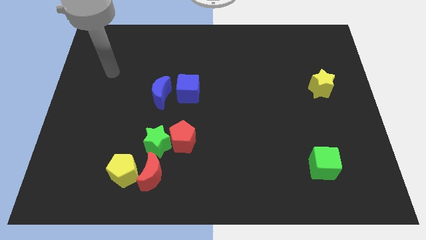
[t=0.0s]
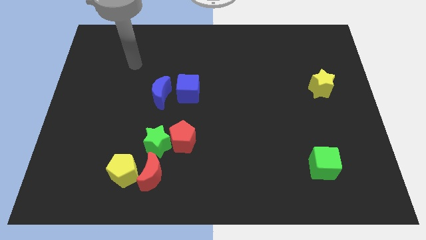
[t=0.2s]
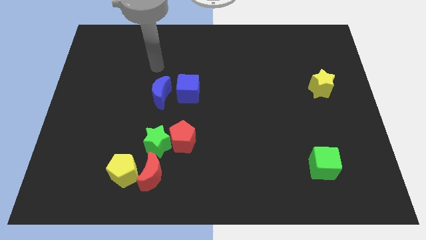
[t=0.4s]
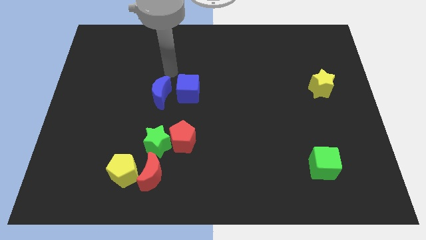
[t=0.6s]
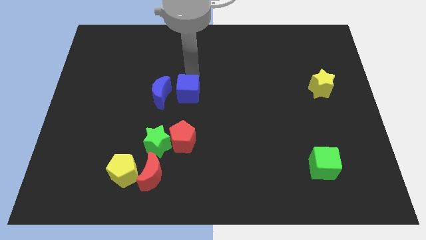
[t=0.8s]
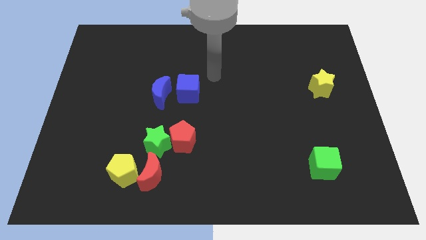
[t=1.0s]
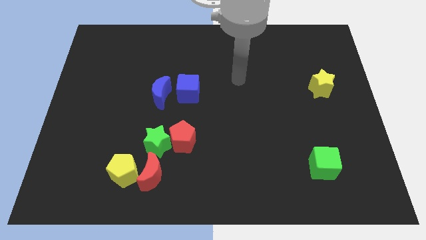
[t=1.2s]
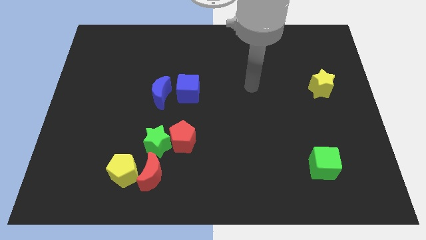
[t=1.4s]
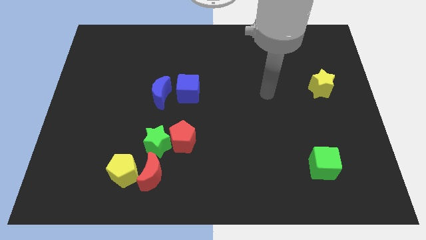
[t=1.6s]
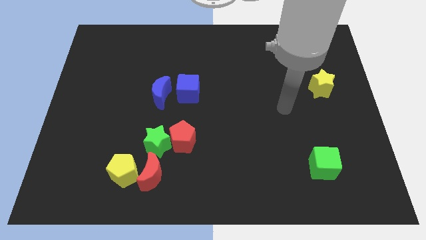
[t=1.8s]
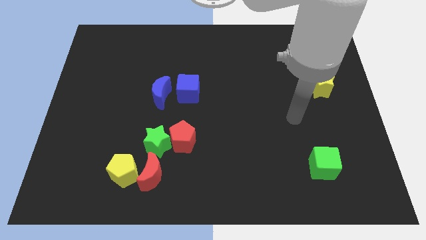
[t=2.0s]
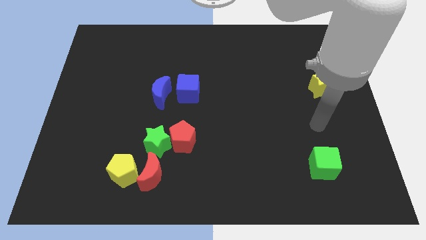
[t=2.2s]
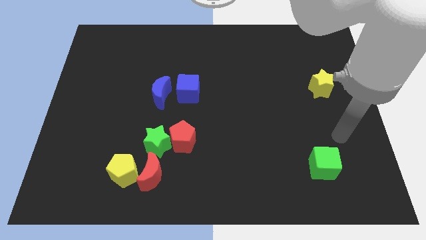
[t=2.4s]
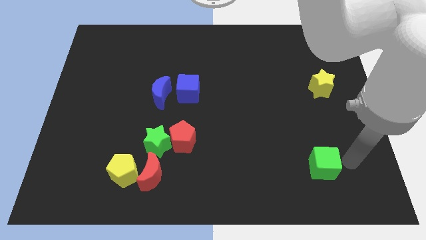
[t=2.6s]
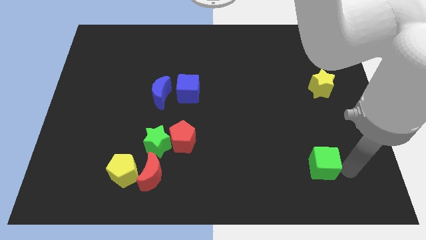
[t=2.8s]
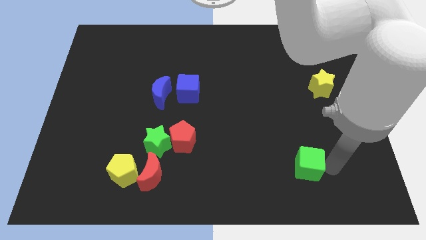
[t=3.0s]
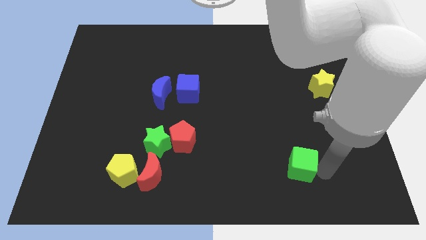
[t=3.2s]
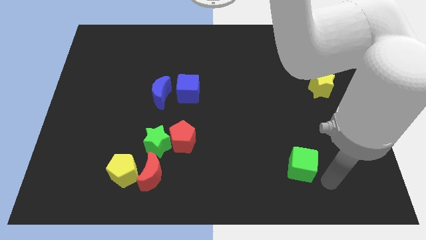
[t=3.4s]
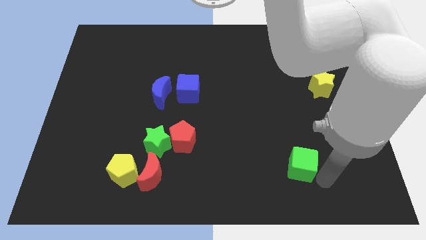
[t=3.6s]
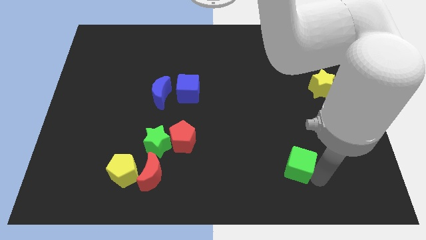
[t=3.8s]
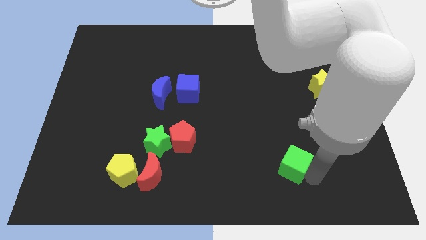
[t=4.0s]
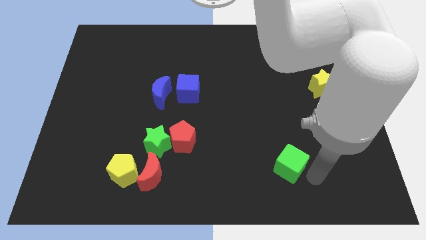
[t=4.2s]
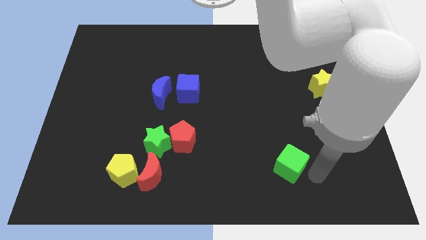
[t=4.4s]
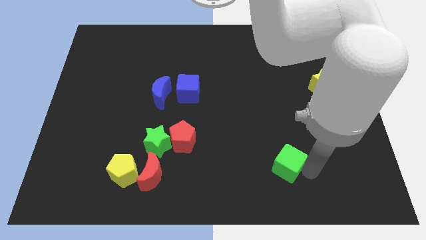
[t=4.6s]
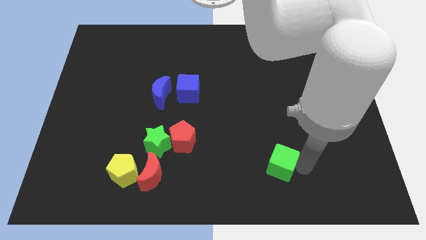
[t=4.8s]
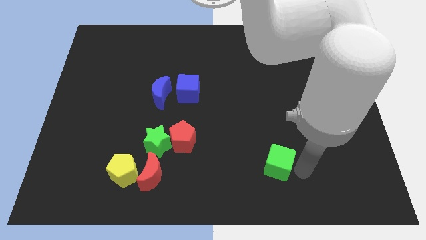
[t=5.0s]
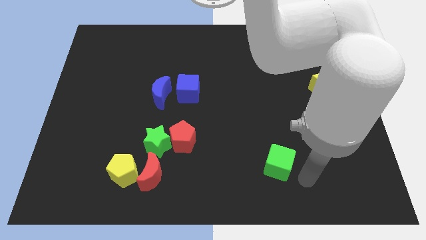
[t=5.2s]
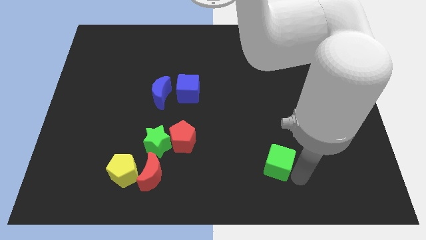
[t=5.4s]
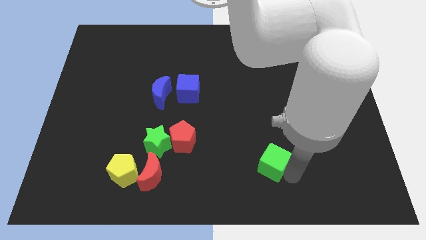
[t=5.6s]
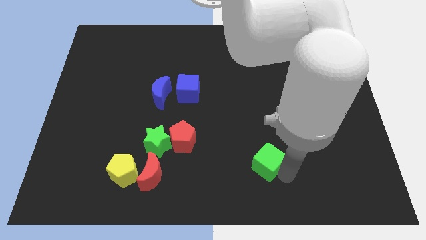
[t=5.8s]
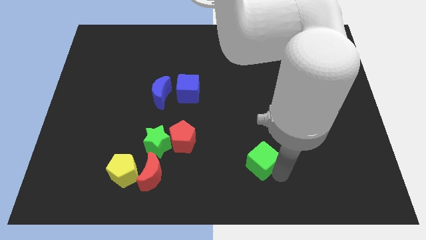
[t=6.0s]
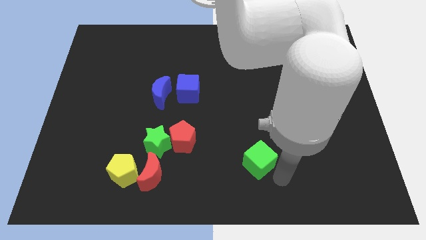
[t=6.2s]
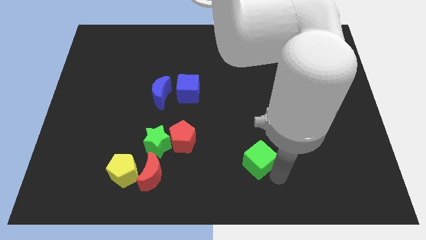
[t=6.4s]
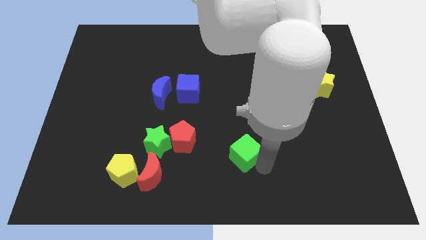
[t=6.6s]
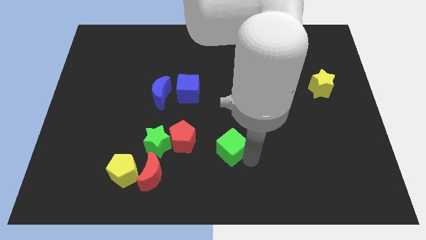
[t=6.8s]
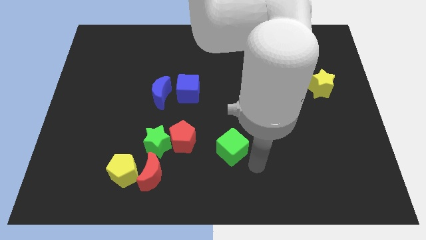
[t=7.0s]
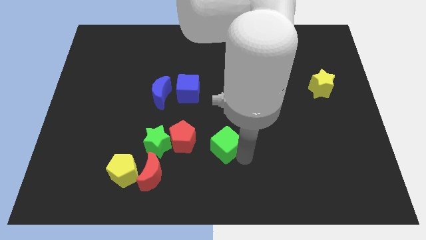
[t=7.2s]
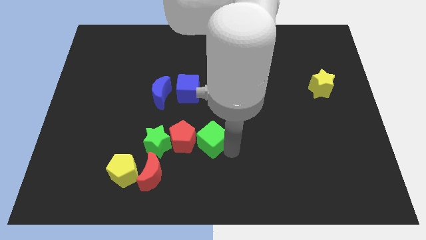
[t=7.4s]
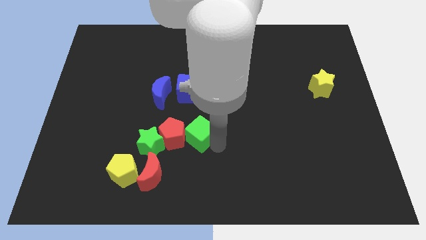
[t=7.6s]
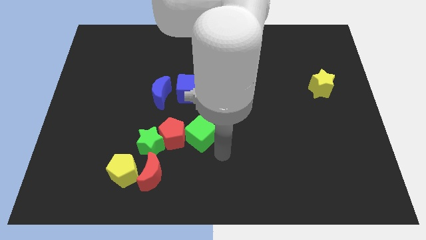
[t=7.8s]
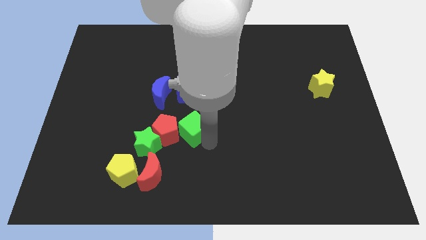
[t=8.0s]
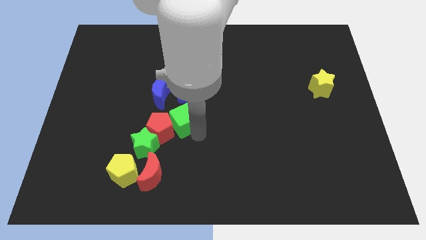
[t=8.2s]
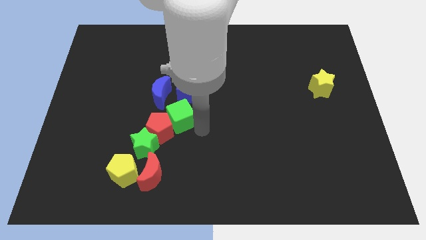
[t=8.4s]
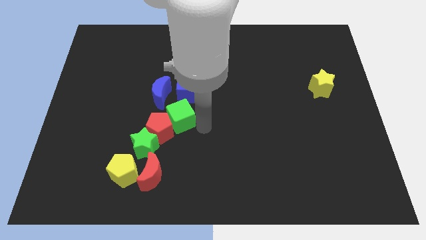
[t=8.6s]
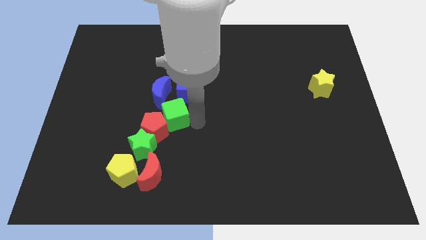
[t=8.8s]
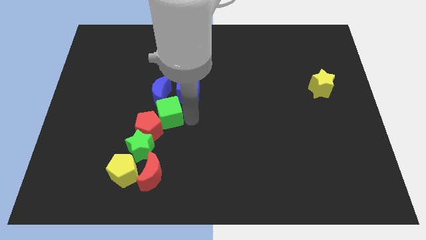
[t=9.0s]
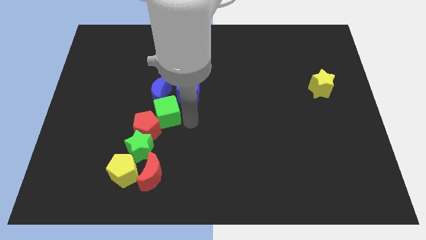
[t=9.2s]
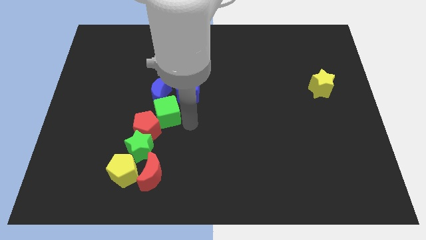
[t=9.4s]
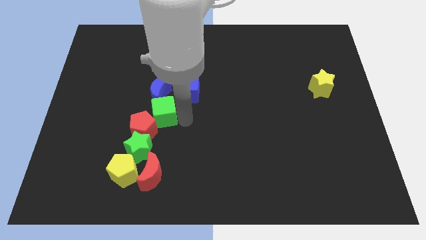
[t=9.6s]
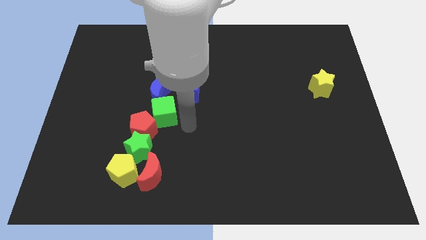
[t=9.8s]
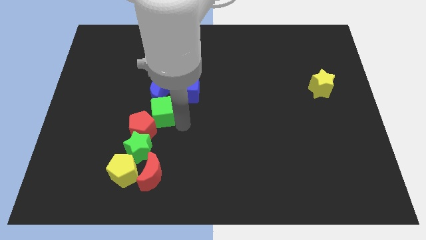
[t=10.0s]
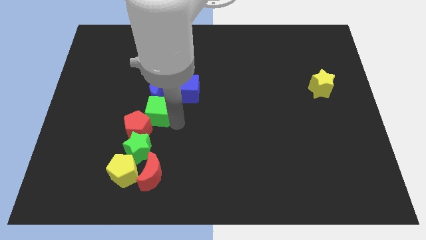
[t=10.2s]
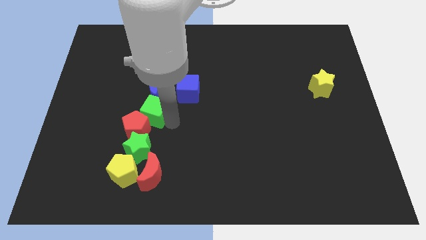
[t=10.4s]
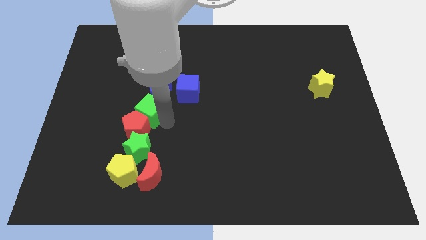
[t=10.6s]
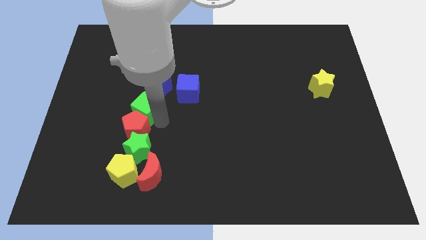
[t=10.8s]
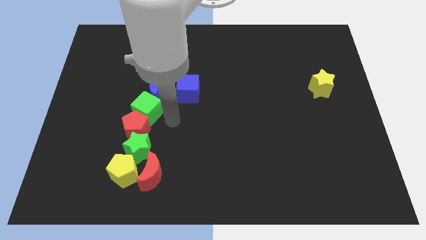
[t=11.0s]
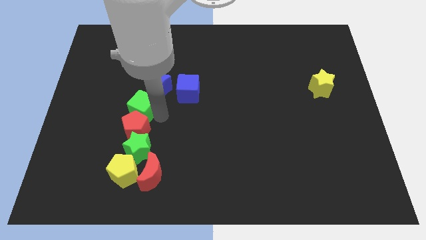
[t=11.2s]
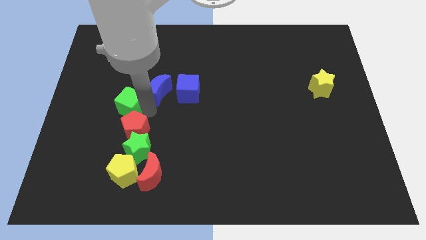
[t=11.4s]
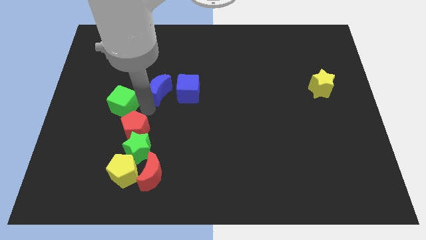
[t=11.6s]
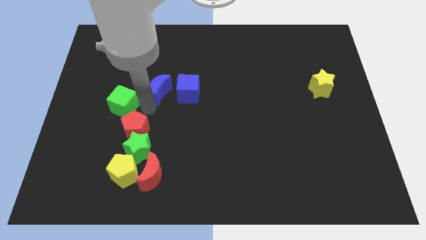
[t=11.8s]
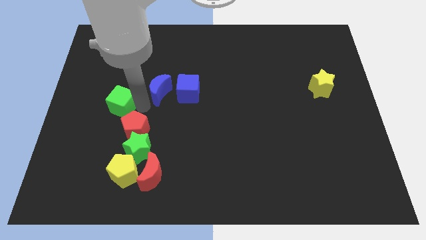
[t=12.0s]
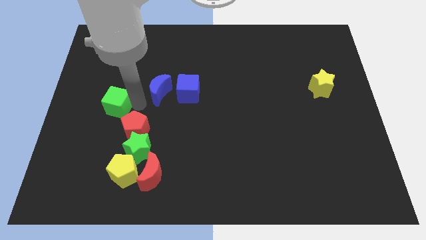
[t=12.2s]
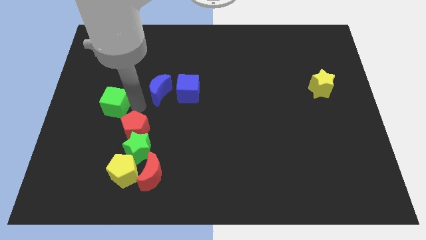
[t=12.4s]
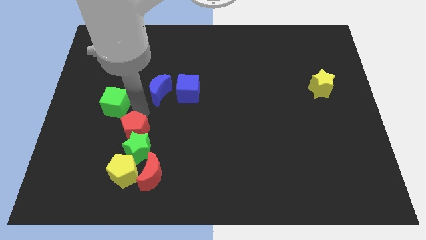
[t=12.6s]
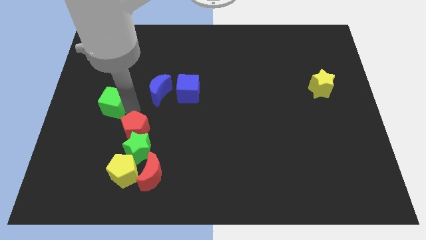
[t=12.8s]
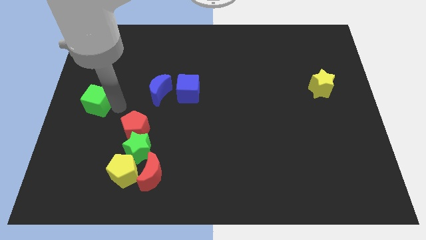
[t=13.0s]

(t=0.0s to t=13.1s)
put the green cube to the left side of the board
